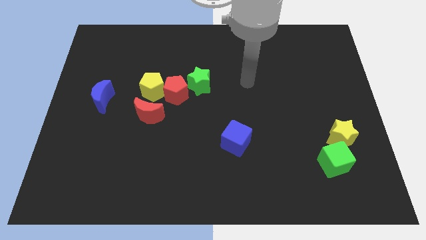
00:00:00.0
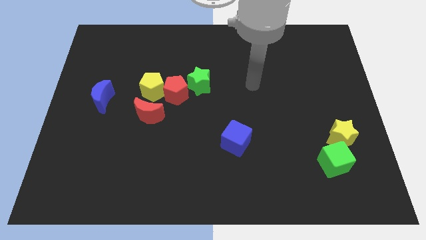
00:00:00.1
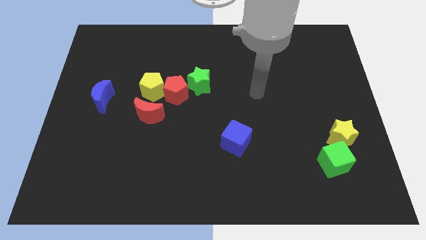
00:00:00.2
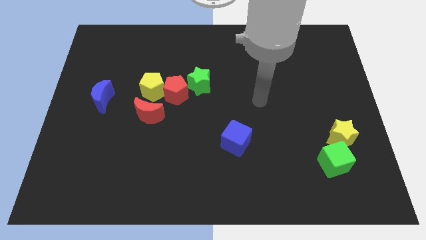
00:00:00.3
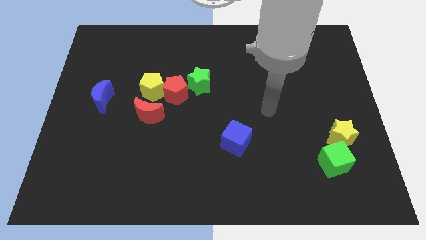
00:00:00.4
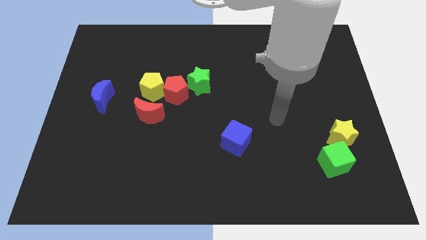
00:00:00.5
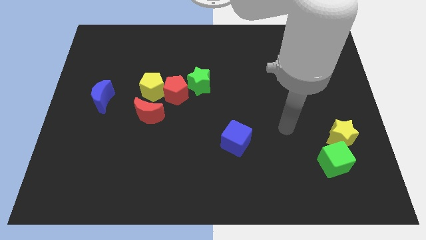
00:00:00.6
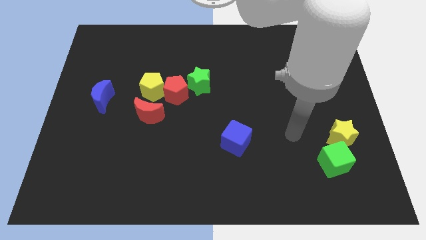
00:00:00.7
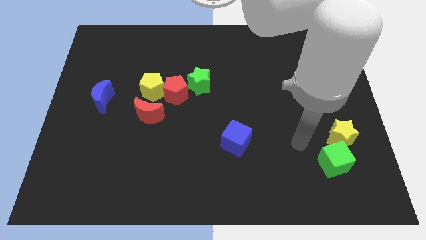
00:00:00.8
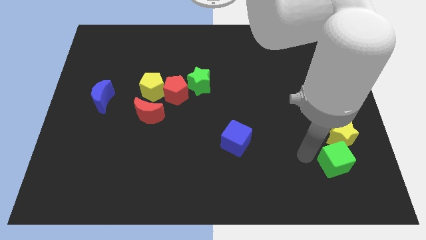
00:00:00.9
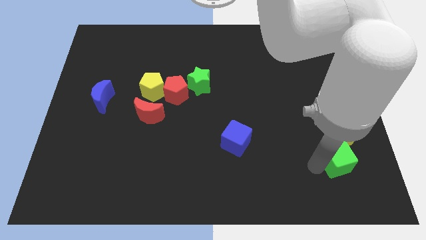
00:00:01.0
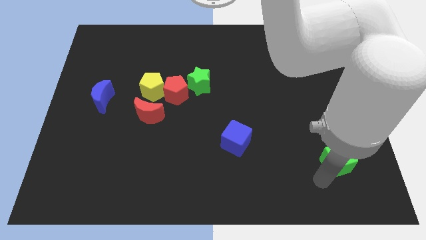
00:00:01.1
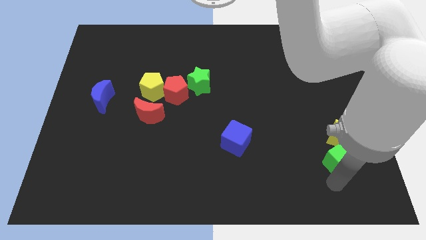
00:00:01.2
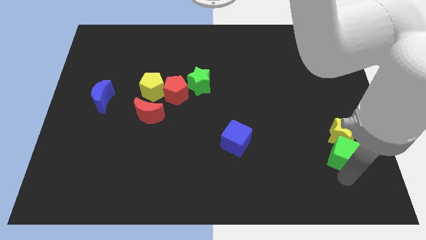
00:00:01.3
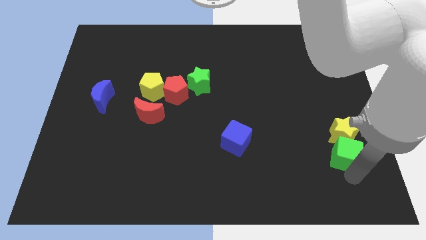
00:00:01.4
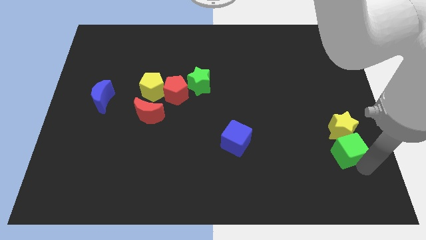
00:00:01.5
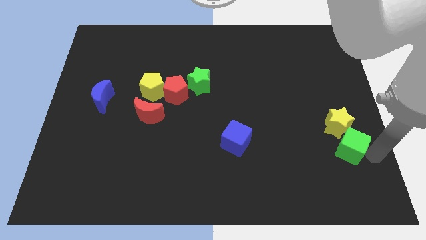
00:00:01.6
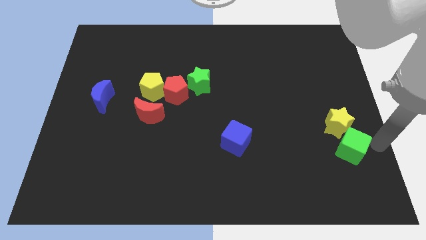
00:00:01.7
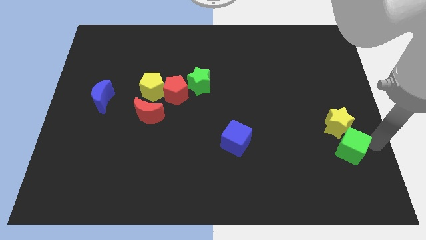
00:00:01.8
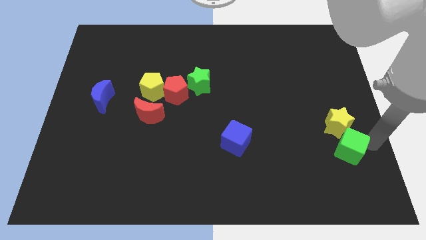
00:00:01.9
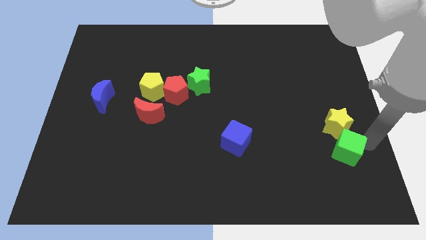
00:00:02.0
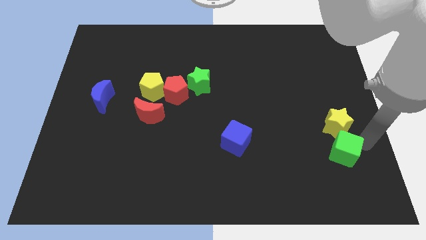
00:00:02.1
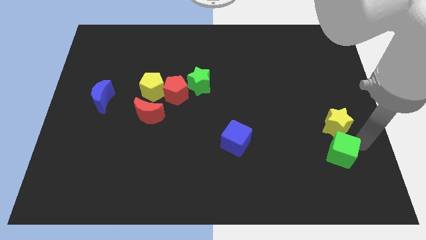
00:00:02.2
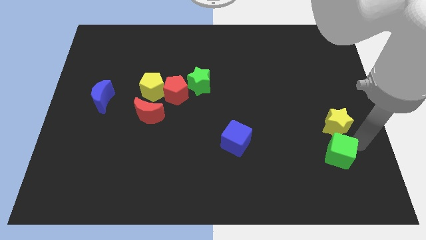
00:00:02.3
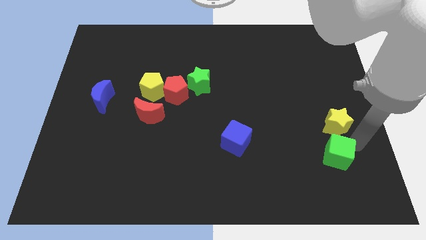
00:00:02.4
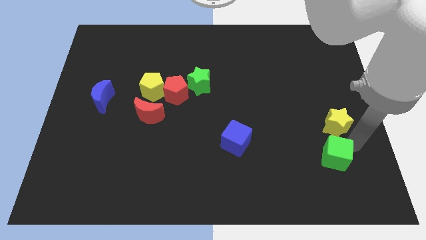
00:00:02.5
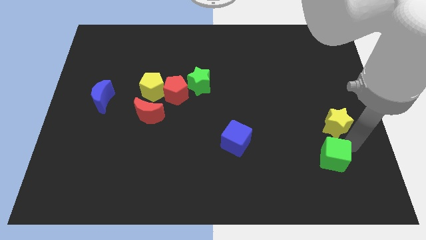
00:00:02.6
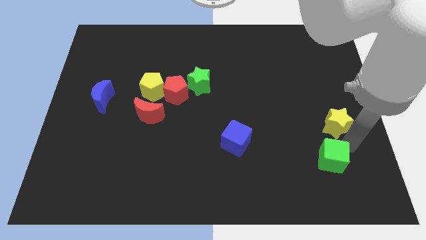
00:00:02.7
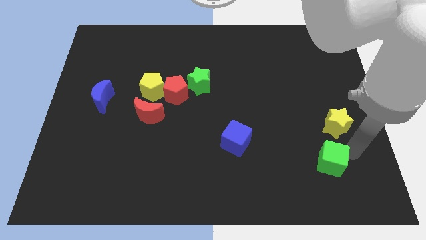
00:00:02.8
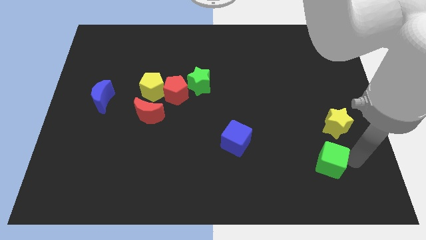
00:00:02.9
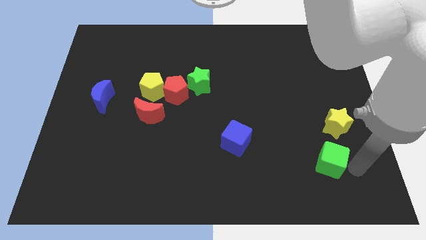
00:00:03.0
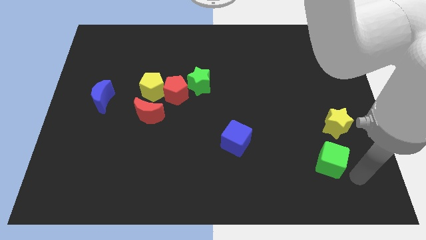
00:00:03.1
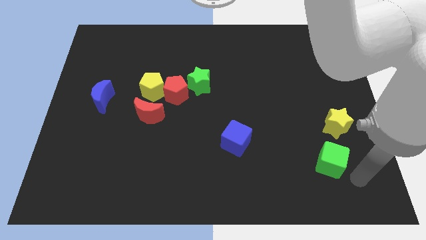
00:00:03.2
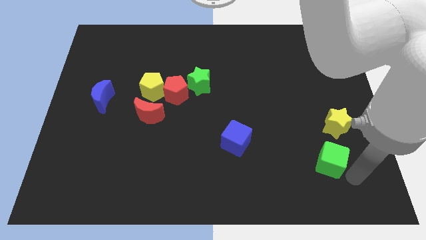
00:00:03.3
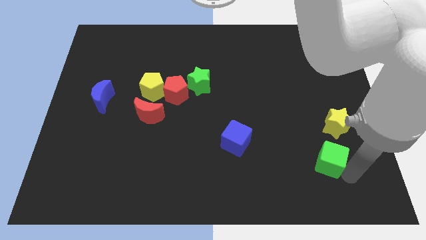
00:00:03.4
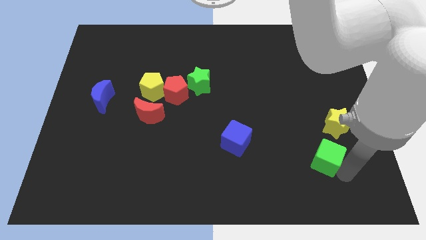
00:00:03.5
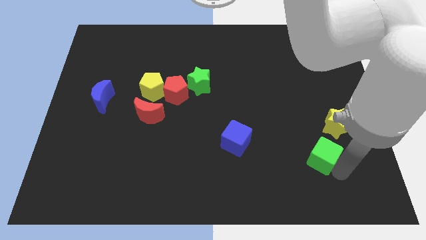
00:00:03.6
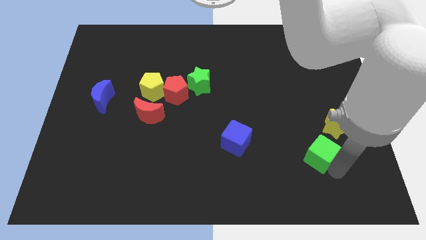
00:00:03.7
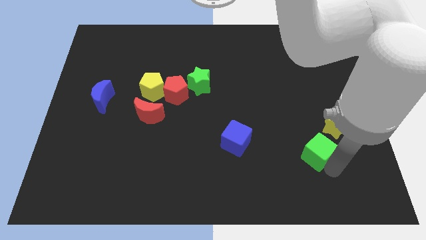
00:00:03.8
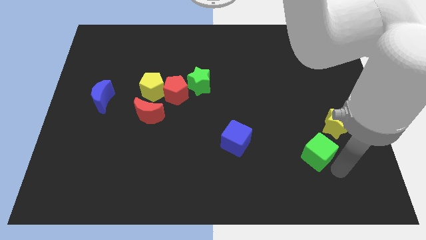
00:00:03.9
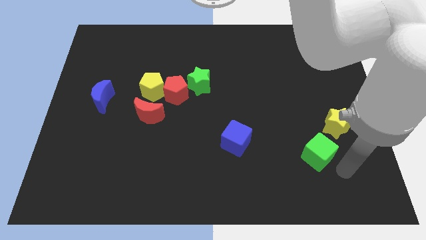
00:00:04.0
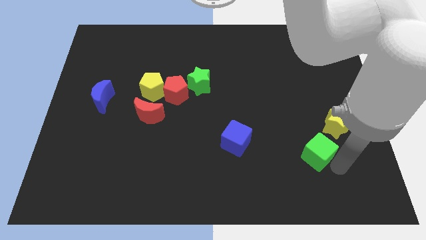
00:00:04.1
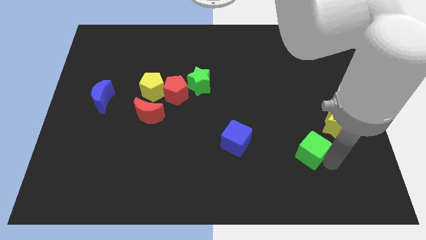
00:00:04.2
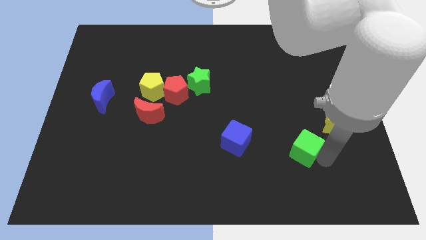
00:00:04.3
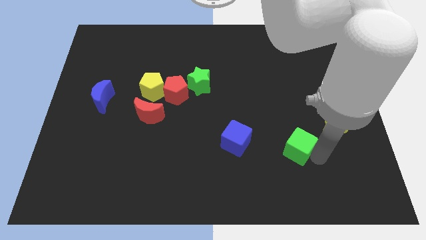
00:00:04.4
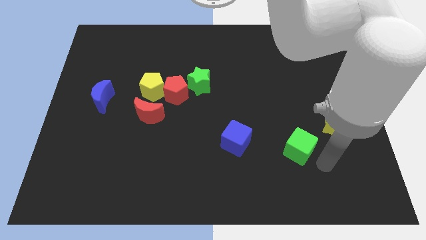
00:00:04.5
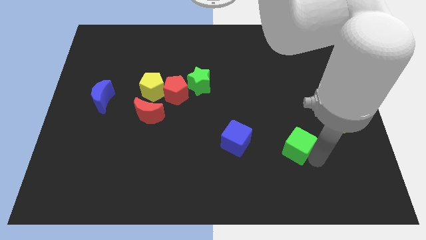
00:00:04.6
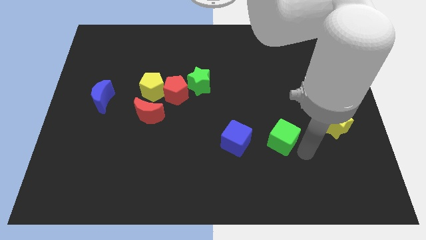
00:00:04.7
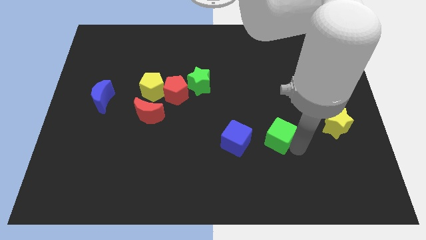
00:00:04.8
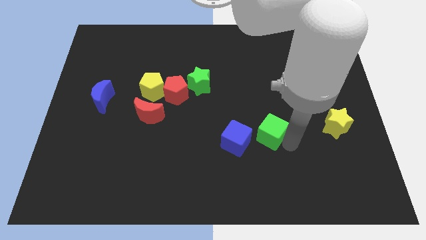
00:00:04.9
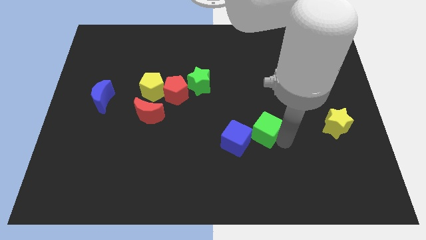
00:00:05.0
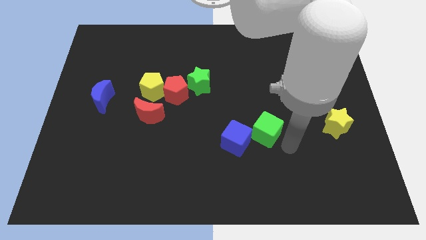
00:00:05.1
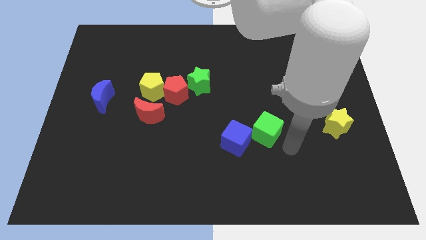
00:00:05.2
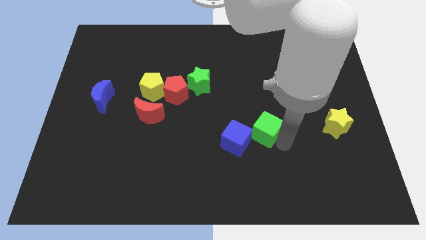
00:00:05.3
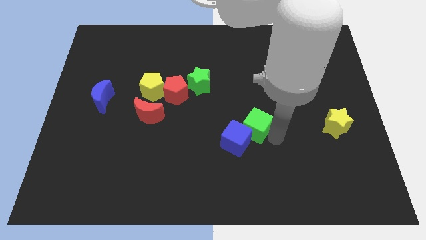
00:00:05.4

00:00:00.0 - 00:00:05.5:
move the green cube to the center
